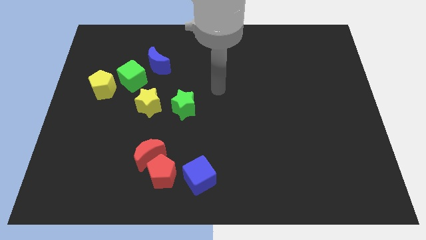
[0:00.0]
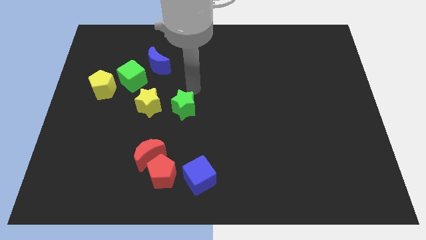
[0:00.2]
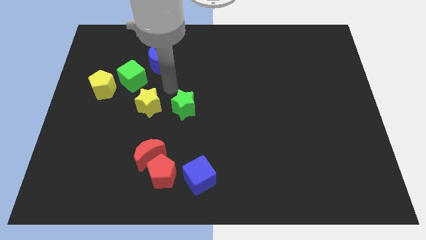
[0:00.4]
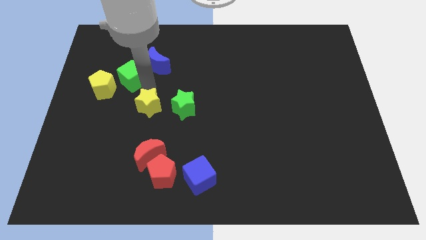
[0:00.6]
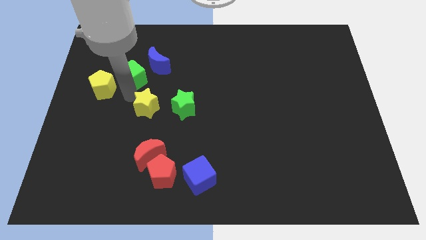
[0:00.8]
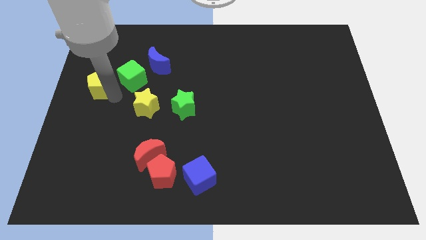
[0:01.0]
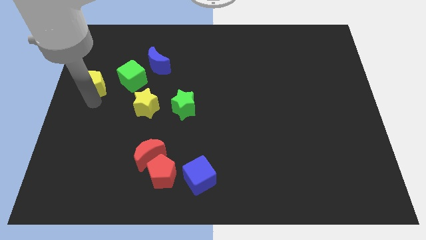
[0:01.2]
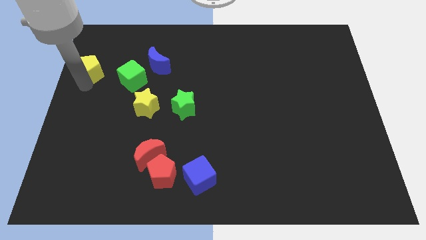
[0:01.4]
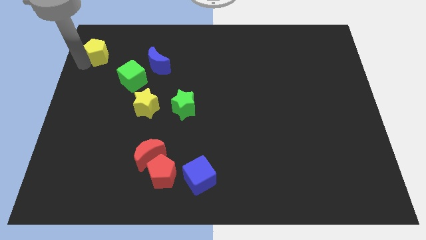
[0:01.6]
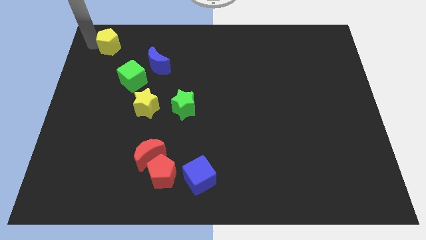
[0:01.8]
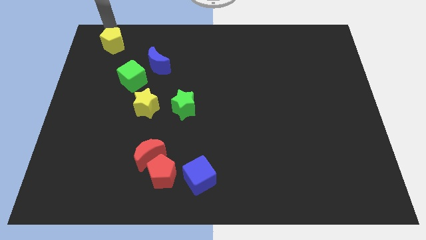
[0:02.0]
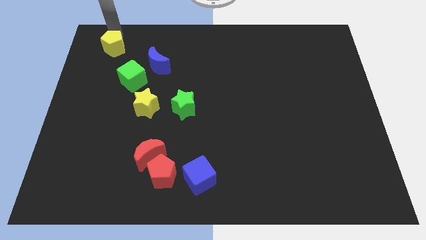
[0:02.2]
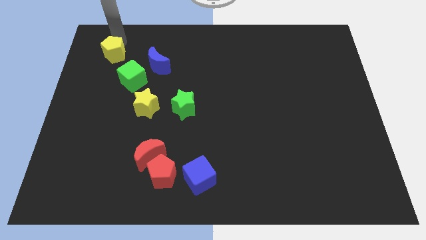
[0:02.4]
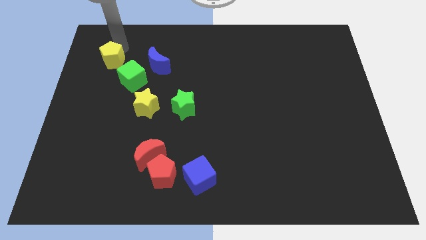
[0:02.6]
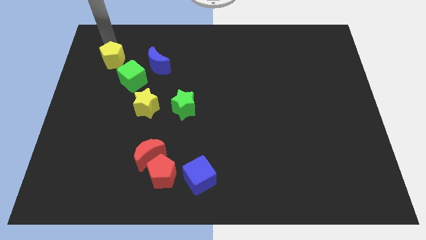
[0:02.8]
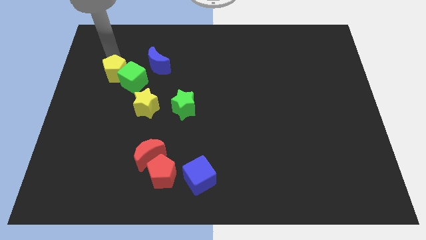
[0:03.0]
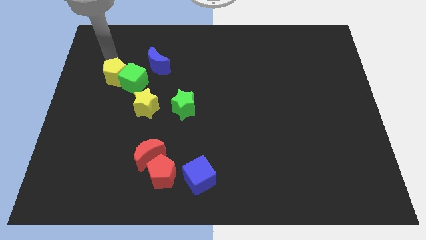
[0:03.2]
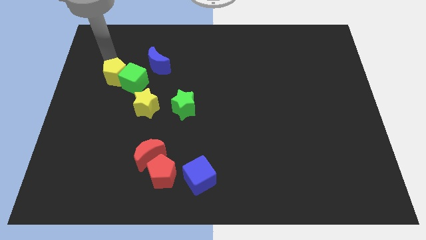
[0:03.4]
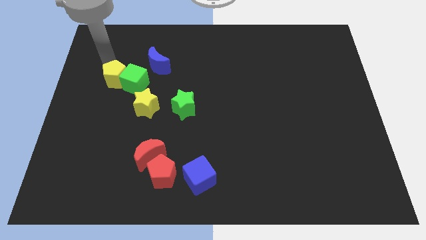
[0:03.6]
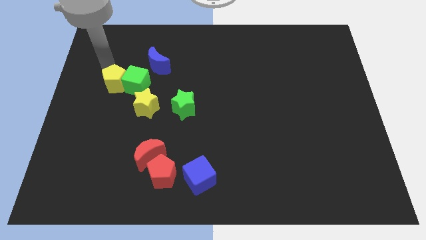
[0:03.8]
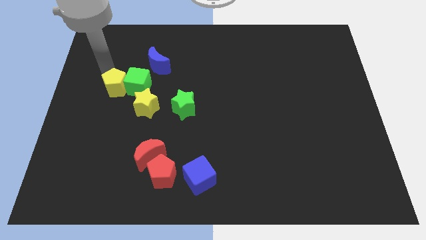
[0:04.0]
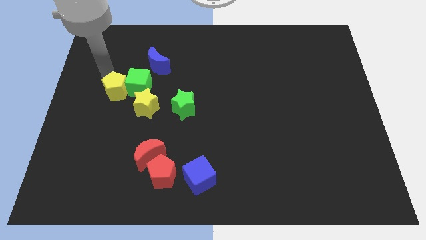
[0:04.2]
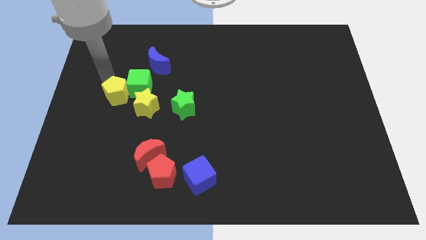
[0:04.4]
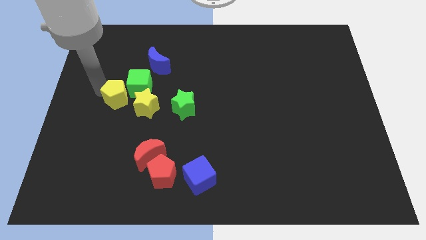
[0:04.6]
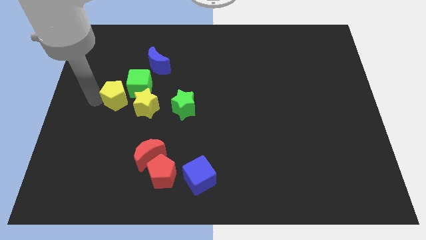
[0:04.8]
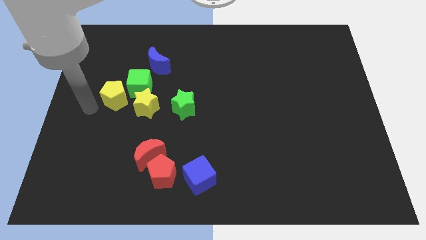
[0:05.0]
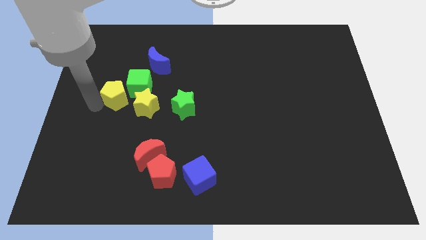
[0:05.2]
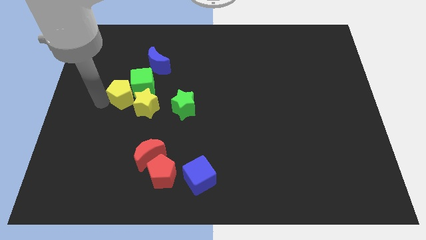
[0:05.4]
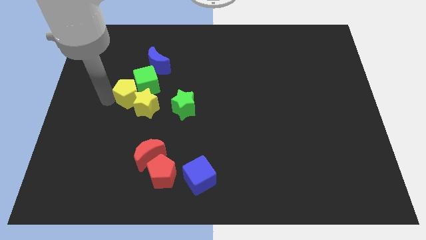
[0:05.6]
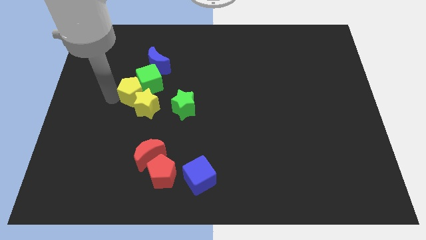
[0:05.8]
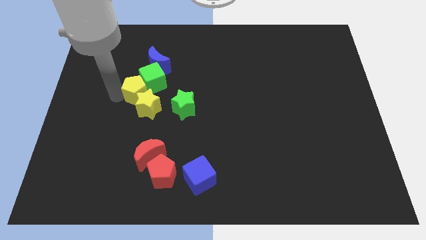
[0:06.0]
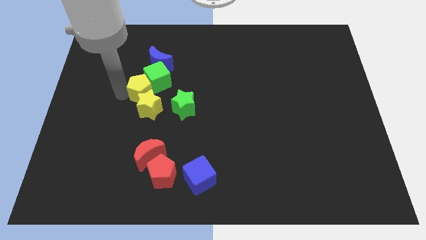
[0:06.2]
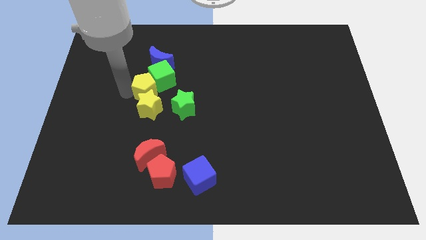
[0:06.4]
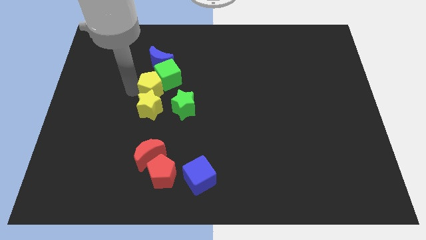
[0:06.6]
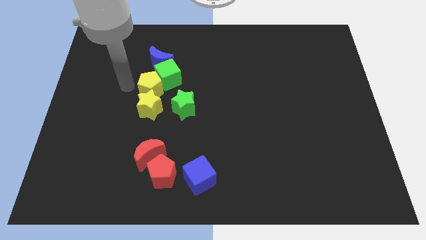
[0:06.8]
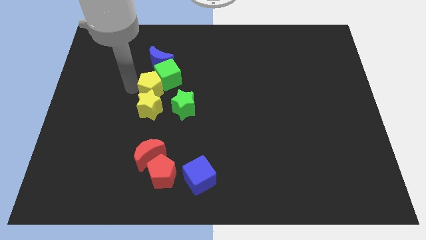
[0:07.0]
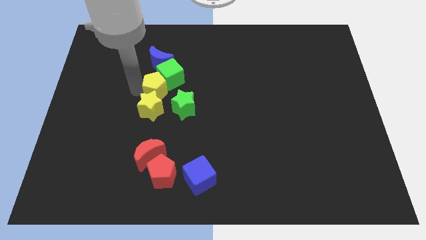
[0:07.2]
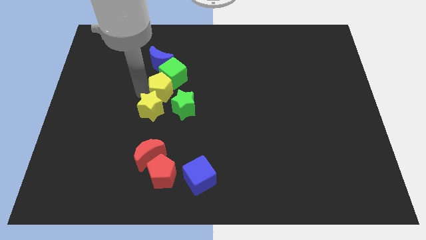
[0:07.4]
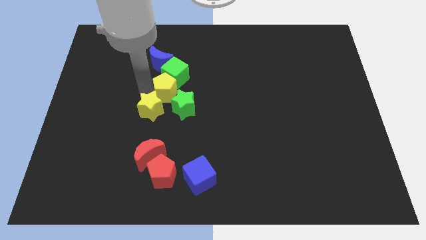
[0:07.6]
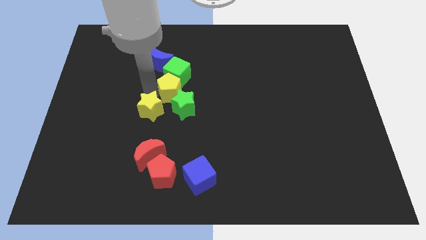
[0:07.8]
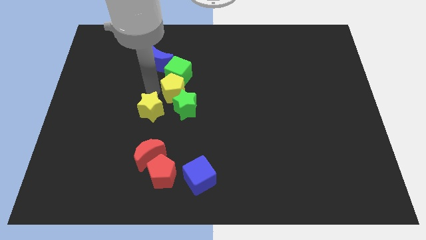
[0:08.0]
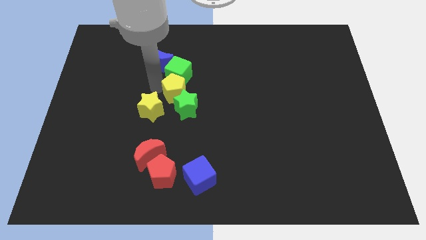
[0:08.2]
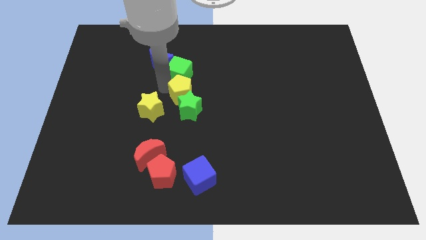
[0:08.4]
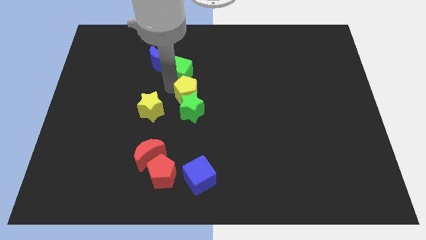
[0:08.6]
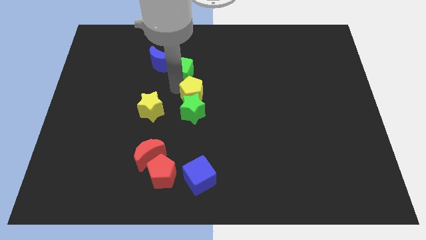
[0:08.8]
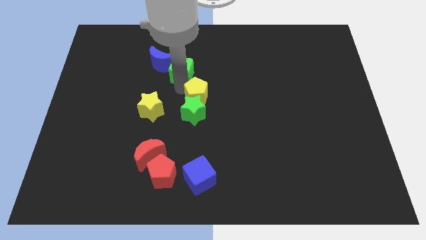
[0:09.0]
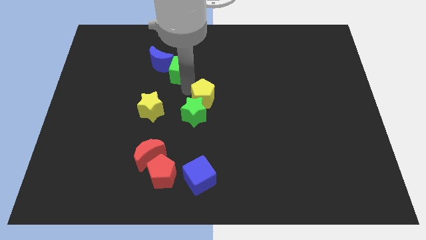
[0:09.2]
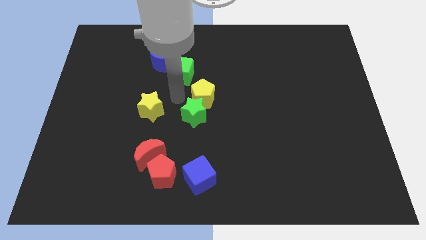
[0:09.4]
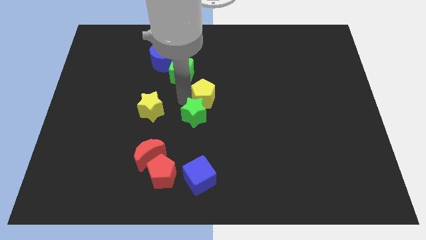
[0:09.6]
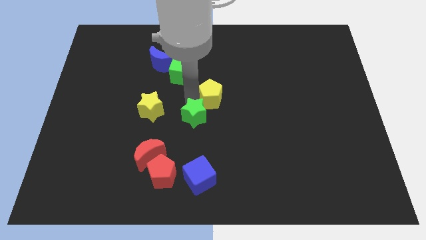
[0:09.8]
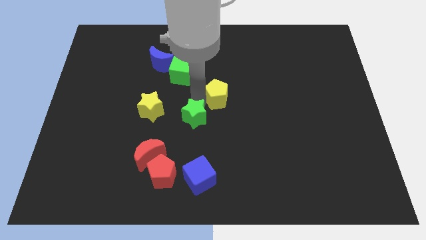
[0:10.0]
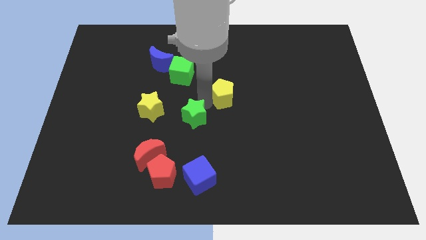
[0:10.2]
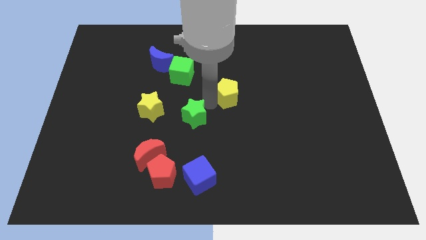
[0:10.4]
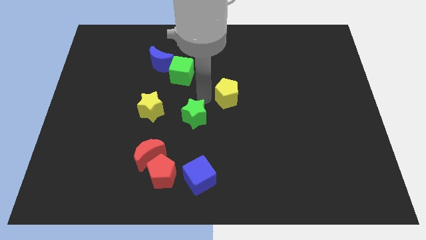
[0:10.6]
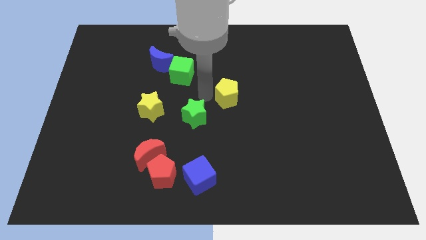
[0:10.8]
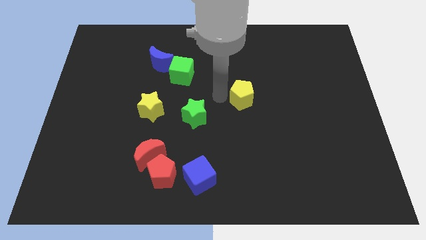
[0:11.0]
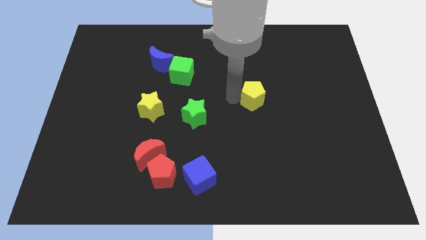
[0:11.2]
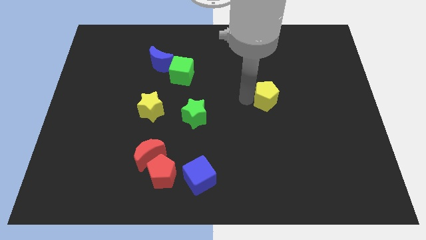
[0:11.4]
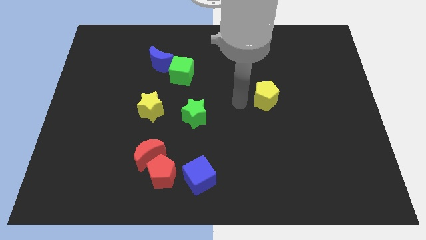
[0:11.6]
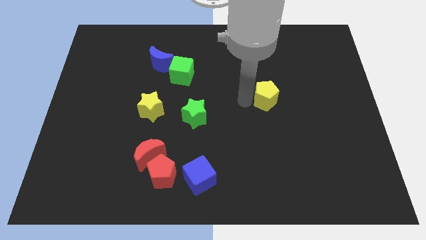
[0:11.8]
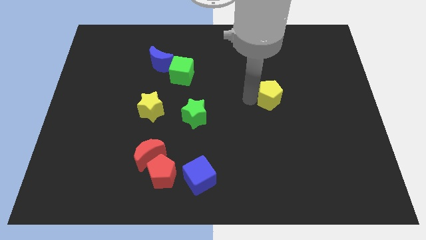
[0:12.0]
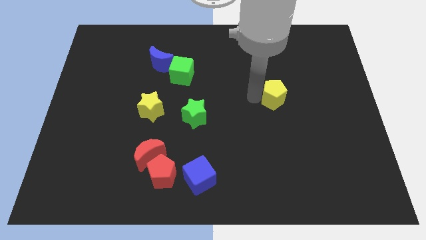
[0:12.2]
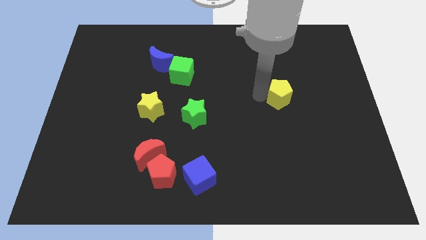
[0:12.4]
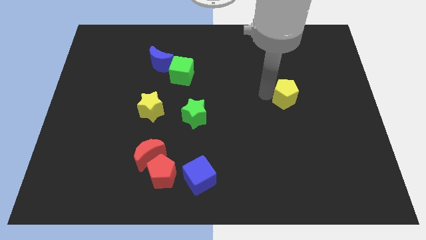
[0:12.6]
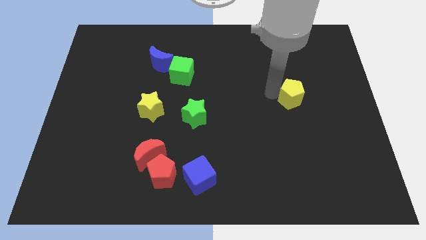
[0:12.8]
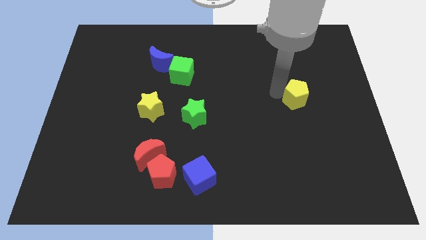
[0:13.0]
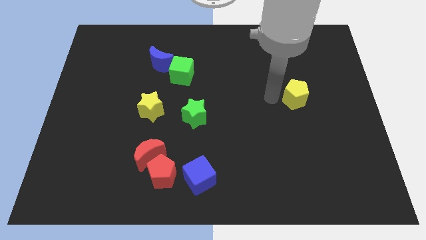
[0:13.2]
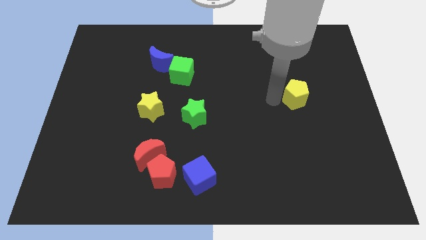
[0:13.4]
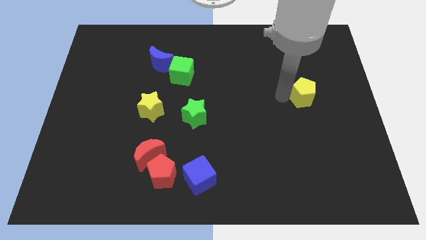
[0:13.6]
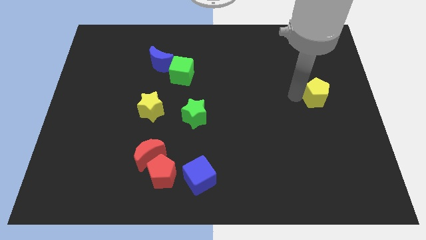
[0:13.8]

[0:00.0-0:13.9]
move the yellow pentagon to the right side
